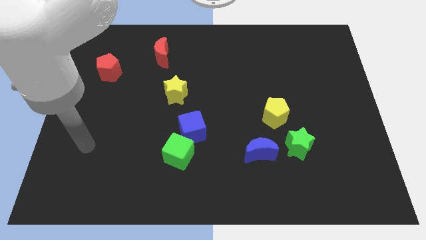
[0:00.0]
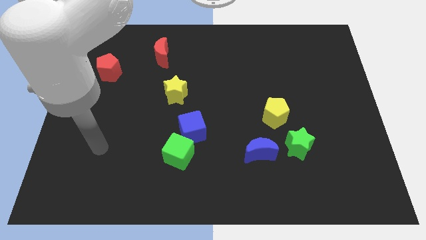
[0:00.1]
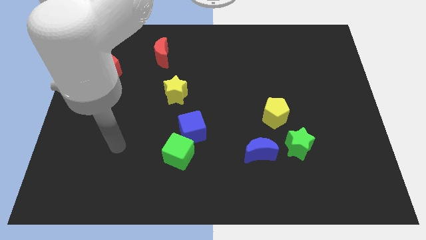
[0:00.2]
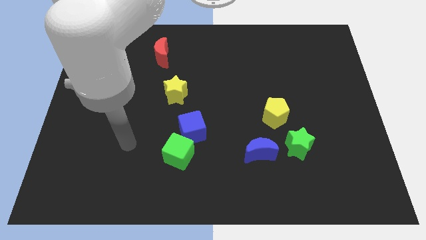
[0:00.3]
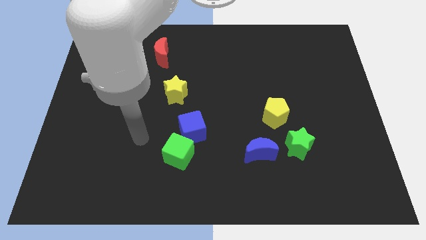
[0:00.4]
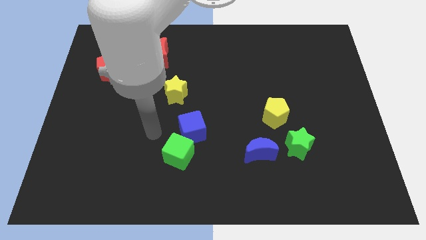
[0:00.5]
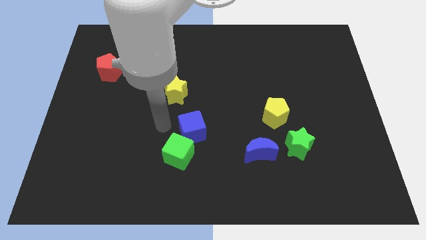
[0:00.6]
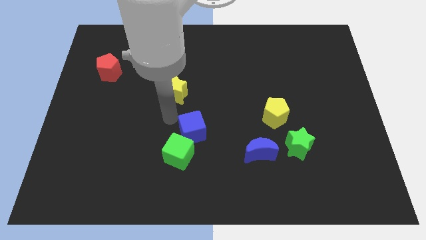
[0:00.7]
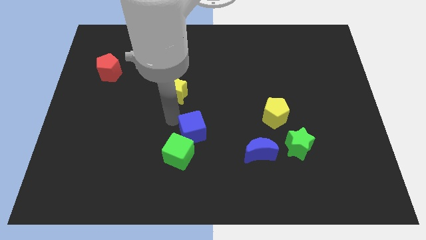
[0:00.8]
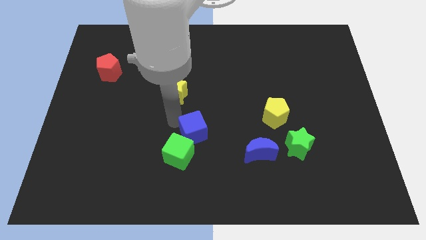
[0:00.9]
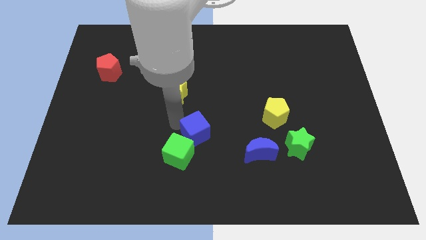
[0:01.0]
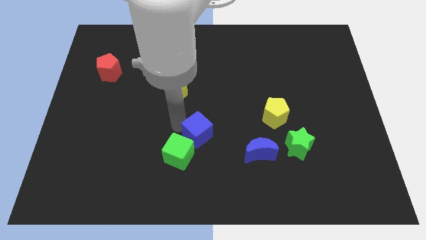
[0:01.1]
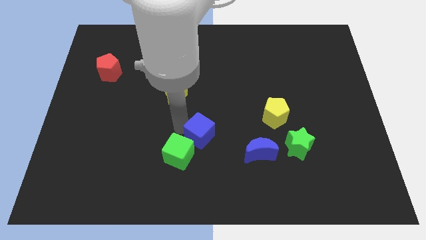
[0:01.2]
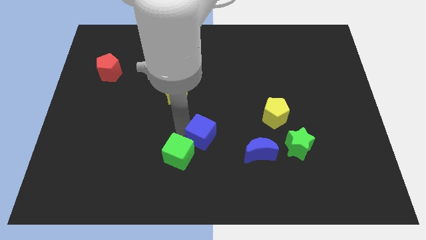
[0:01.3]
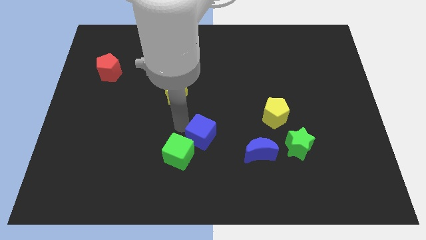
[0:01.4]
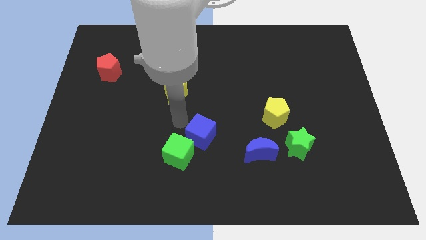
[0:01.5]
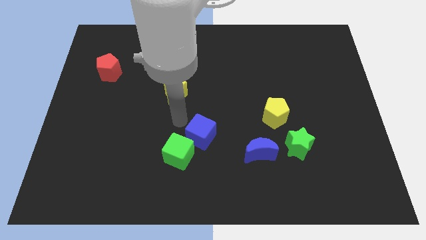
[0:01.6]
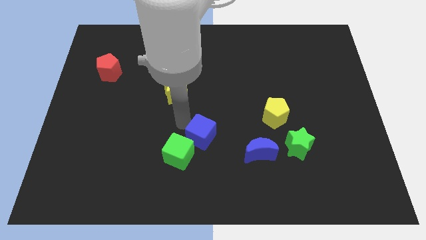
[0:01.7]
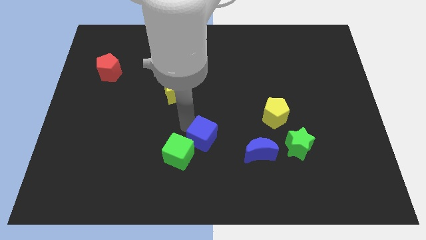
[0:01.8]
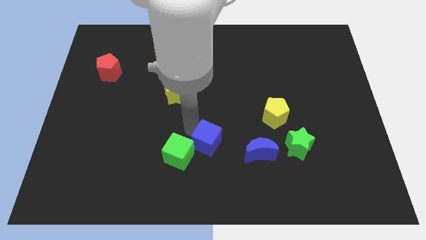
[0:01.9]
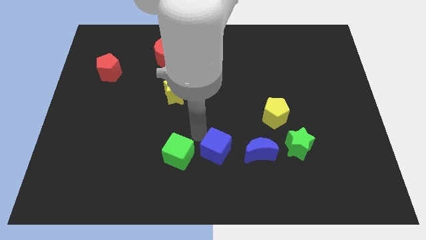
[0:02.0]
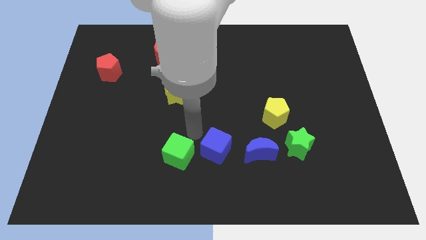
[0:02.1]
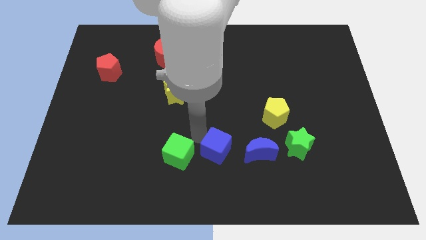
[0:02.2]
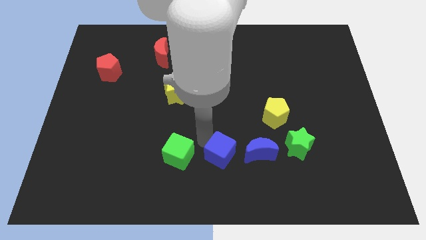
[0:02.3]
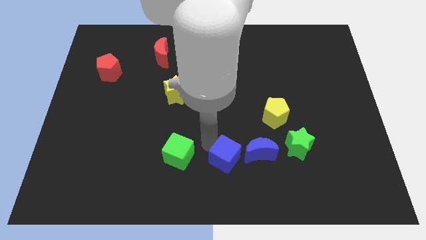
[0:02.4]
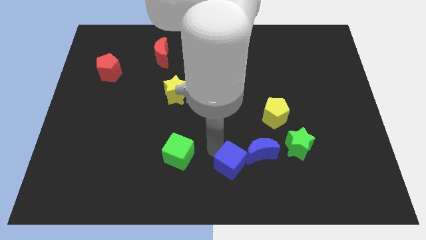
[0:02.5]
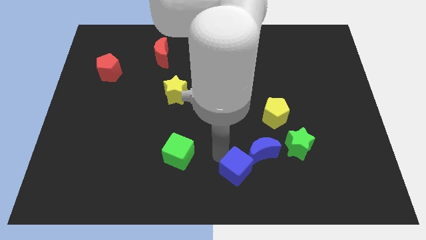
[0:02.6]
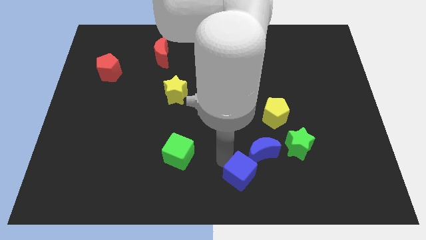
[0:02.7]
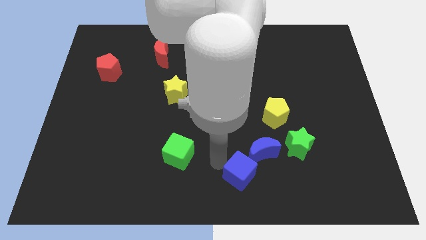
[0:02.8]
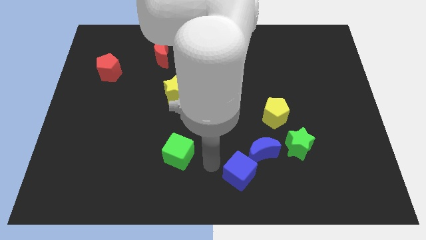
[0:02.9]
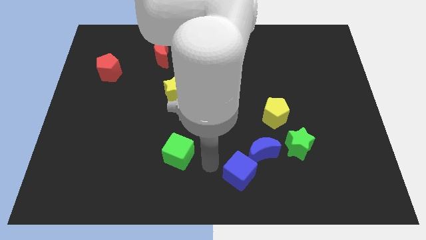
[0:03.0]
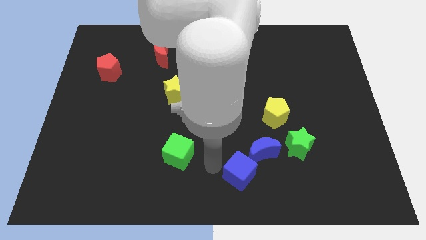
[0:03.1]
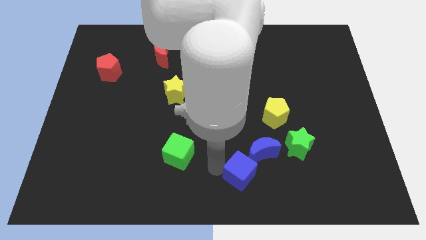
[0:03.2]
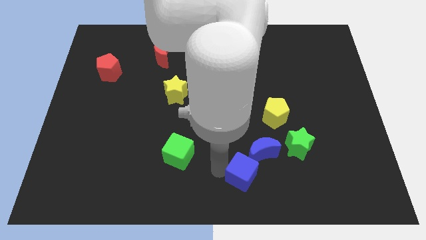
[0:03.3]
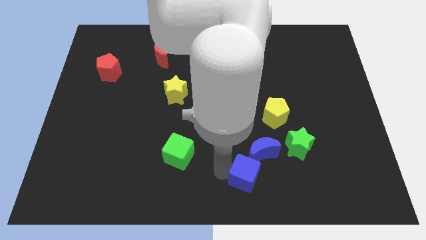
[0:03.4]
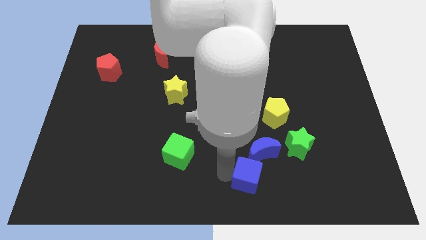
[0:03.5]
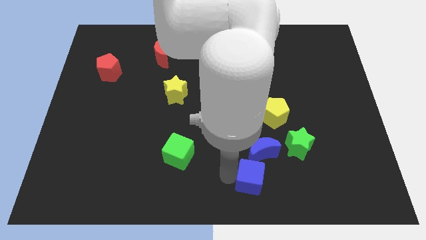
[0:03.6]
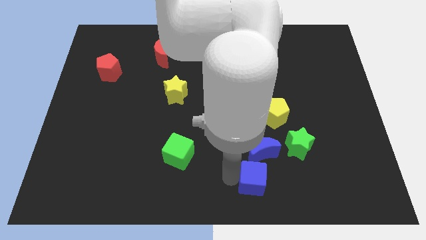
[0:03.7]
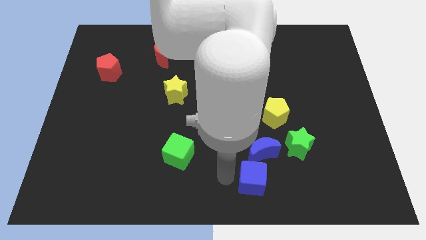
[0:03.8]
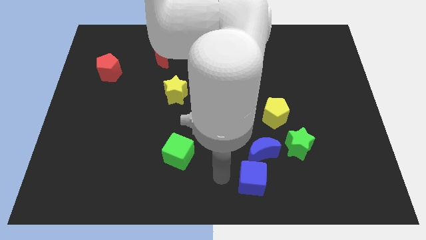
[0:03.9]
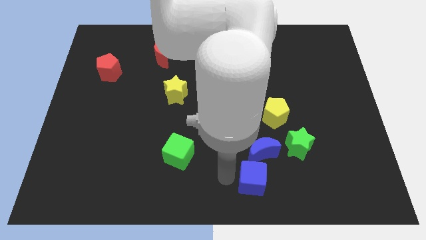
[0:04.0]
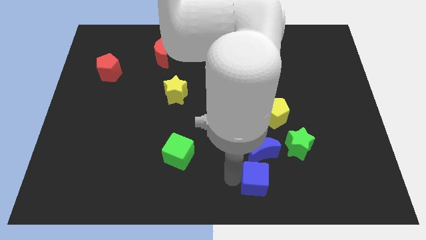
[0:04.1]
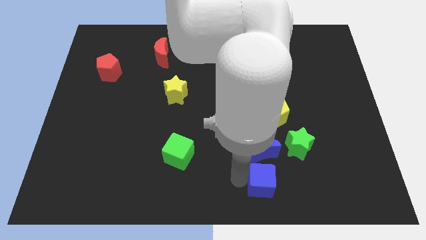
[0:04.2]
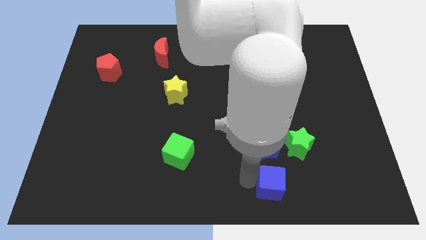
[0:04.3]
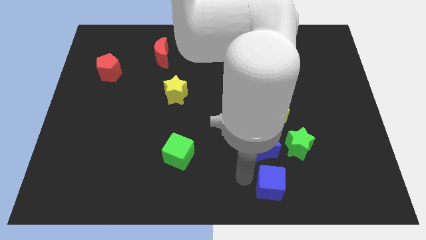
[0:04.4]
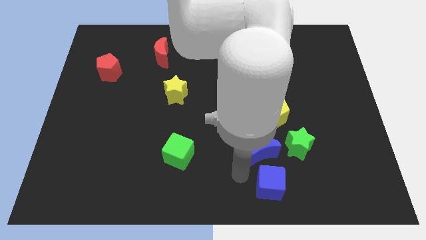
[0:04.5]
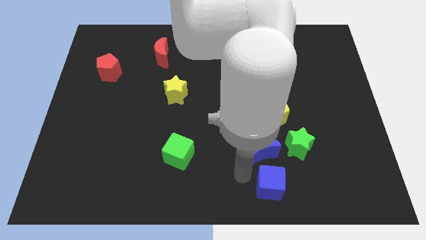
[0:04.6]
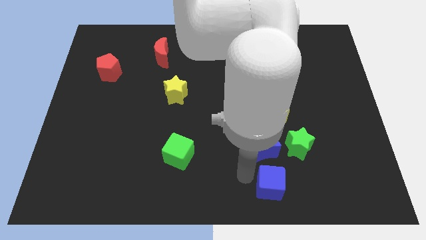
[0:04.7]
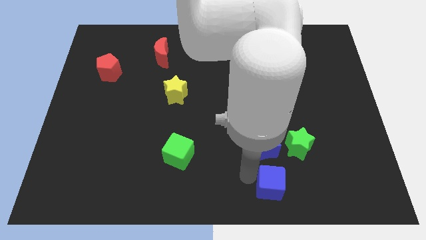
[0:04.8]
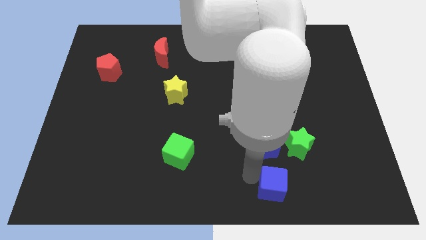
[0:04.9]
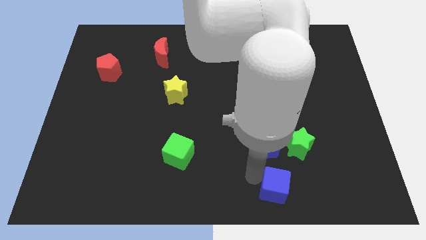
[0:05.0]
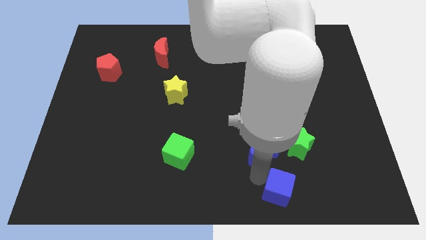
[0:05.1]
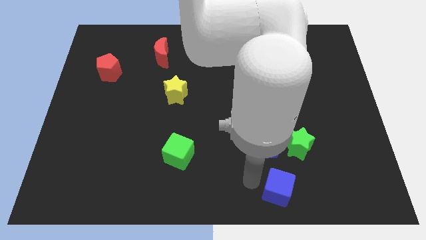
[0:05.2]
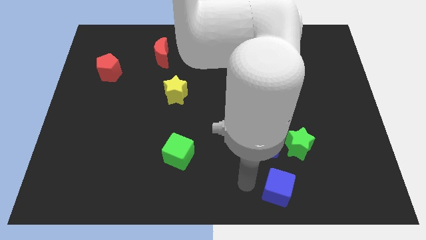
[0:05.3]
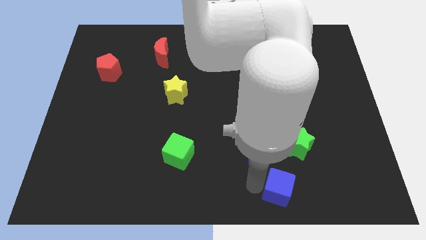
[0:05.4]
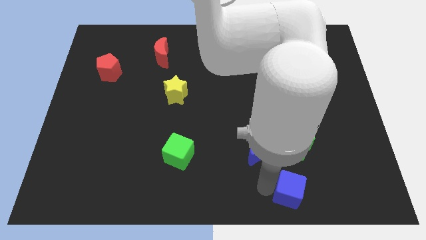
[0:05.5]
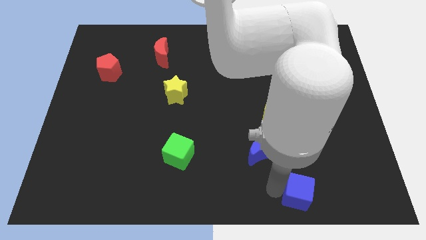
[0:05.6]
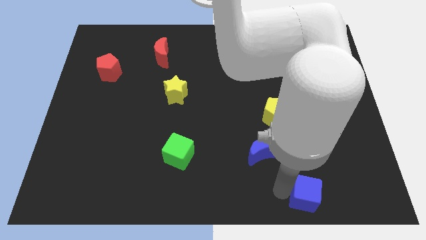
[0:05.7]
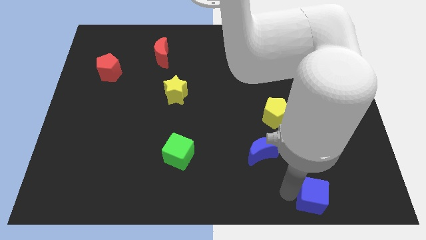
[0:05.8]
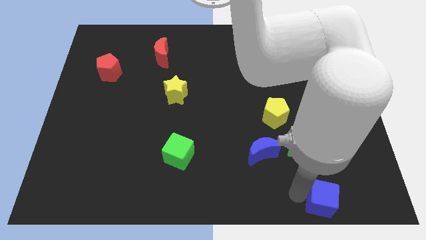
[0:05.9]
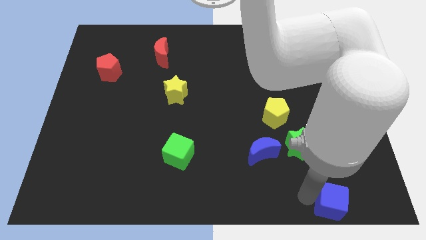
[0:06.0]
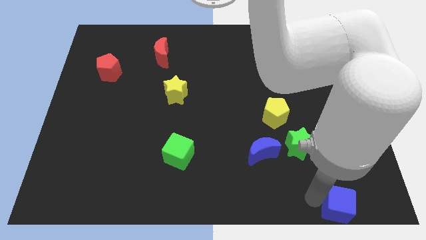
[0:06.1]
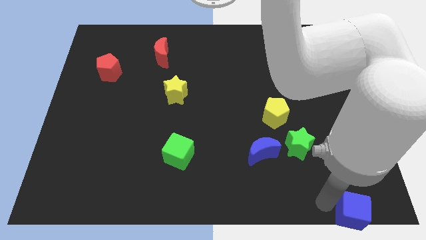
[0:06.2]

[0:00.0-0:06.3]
move the blue cube to the bottom right corner
